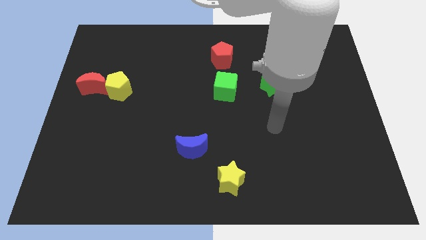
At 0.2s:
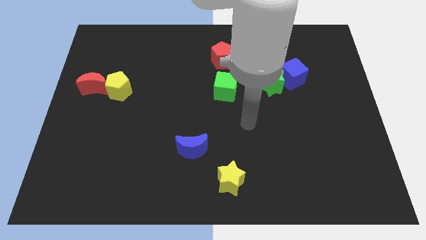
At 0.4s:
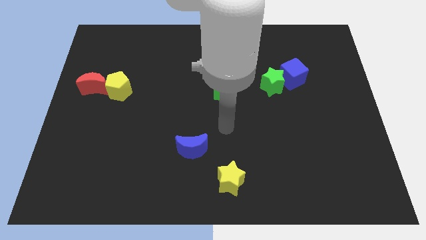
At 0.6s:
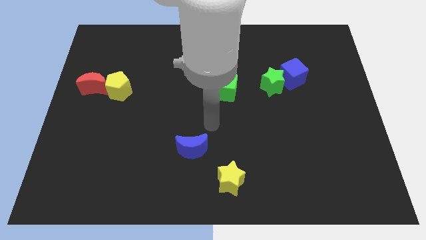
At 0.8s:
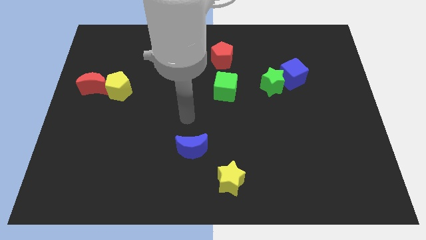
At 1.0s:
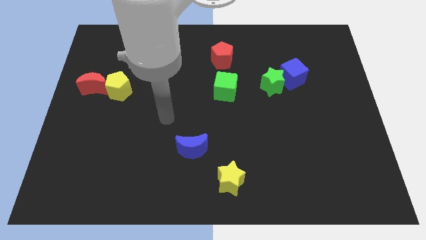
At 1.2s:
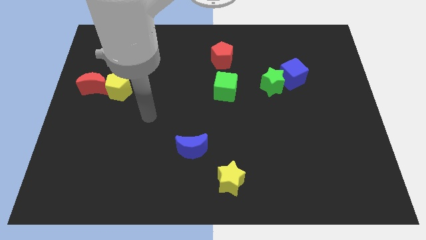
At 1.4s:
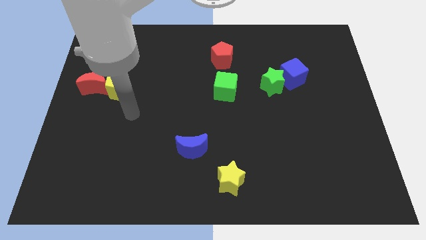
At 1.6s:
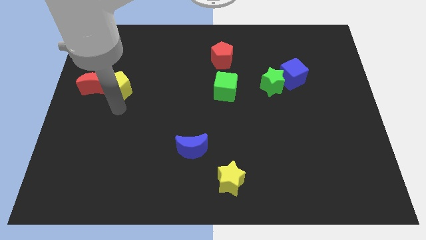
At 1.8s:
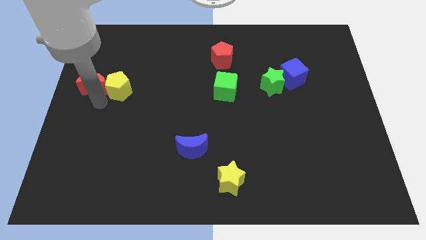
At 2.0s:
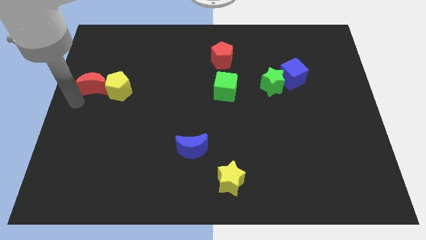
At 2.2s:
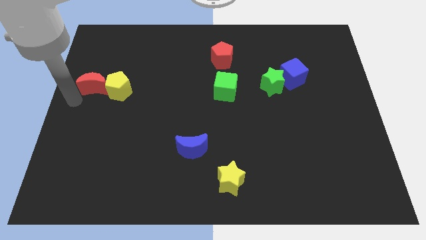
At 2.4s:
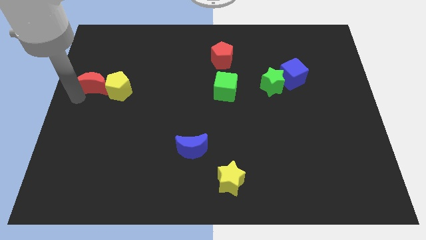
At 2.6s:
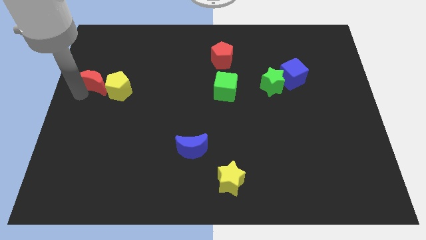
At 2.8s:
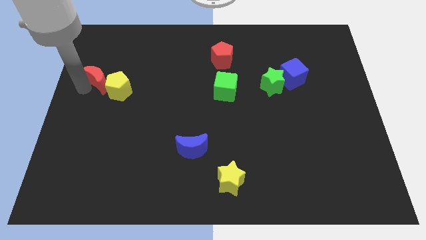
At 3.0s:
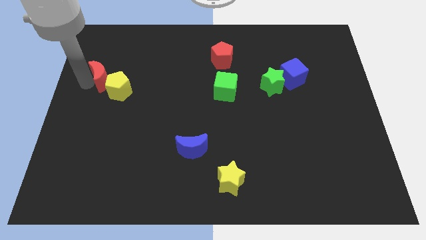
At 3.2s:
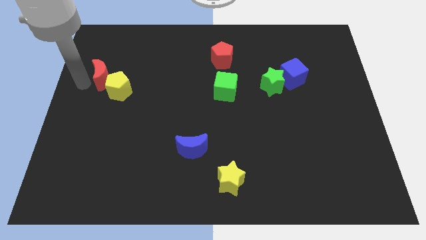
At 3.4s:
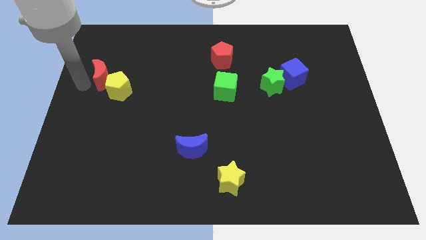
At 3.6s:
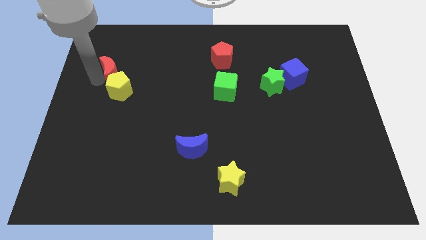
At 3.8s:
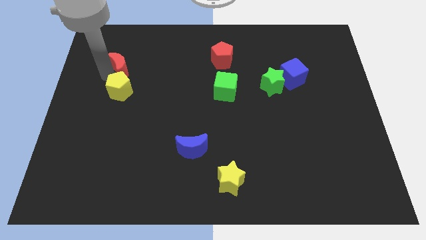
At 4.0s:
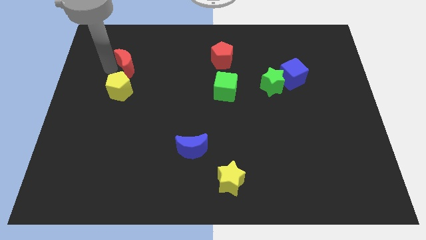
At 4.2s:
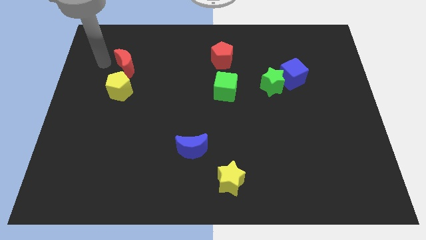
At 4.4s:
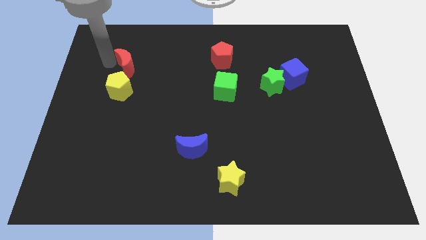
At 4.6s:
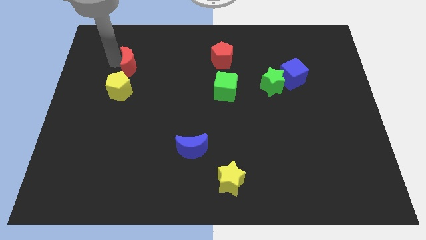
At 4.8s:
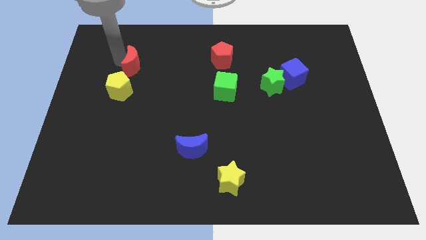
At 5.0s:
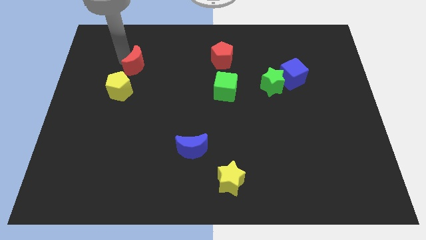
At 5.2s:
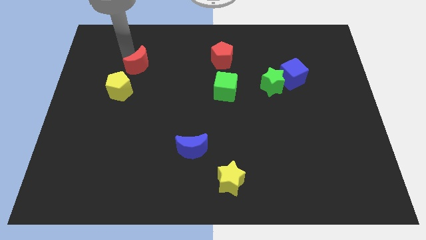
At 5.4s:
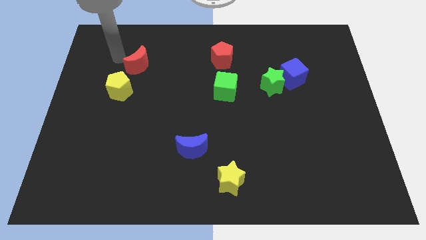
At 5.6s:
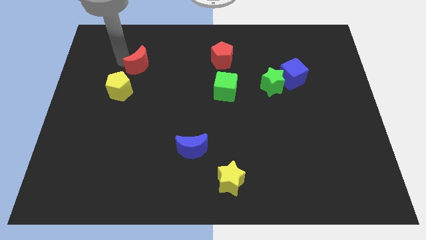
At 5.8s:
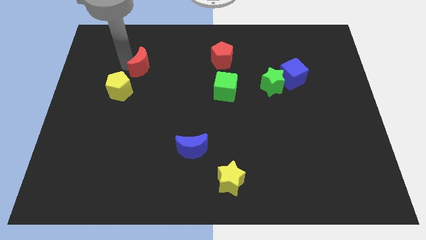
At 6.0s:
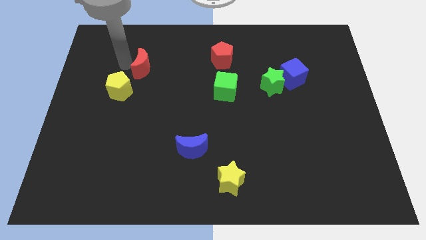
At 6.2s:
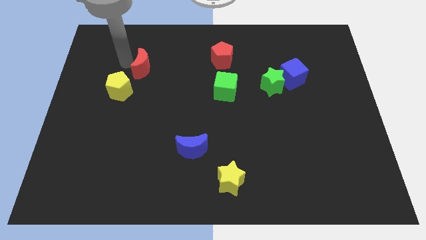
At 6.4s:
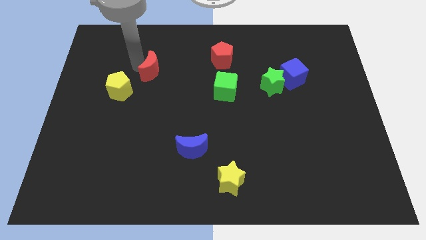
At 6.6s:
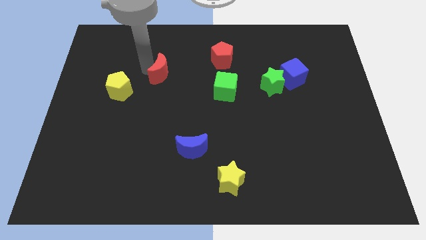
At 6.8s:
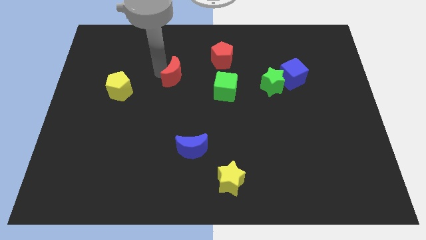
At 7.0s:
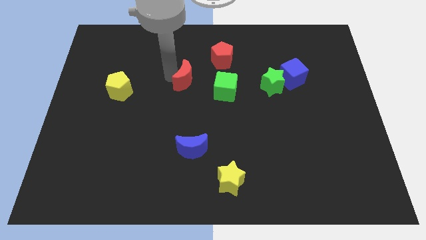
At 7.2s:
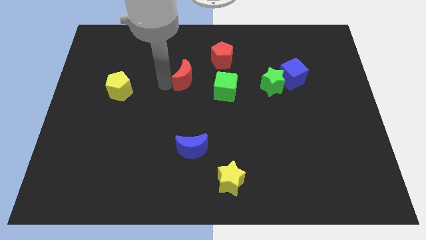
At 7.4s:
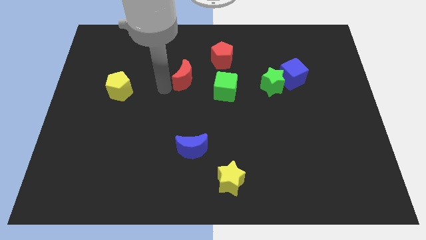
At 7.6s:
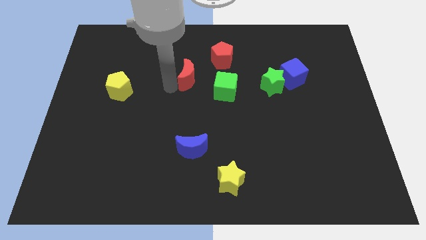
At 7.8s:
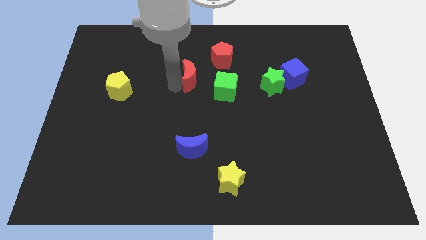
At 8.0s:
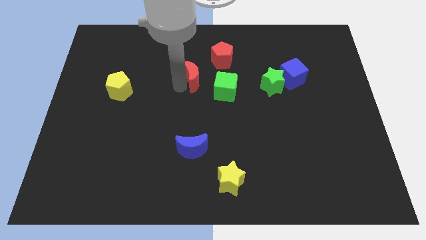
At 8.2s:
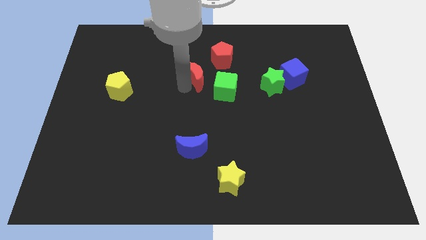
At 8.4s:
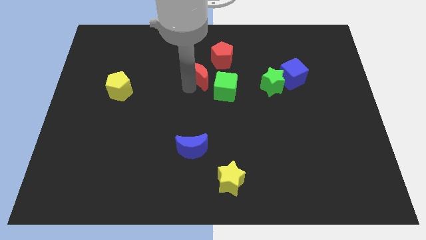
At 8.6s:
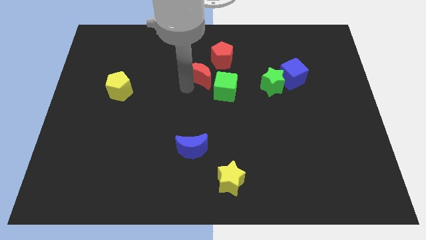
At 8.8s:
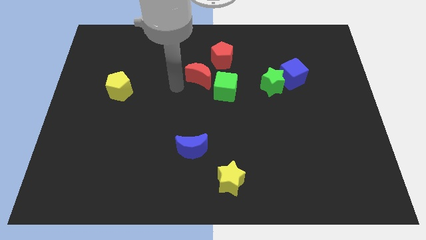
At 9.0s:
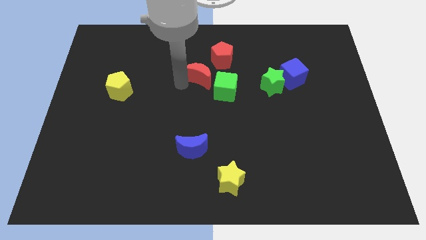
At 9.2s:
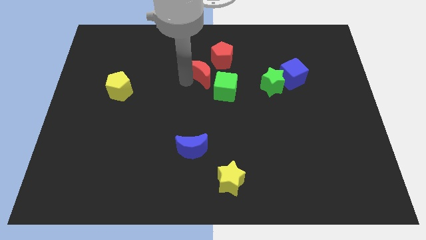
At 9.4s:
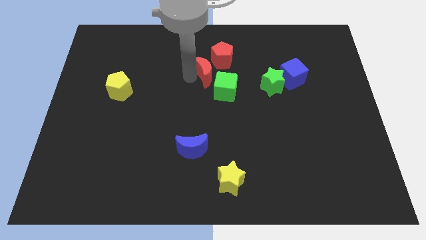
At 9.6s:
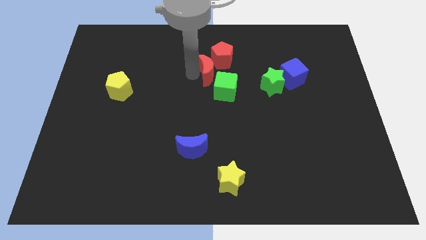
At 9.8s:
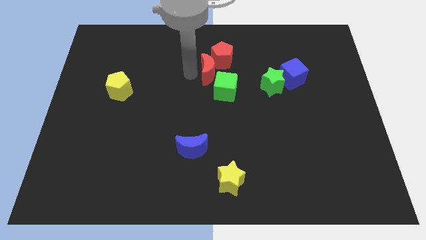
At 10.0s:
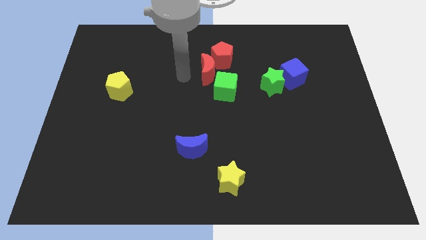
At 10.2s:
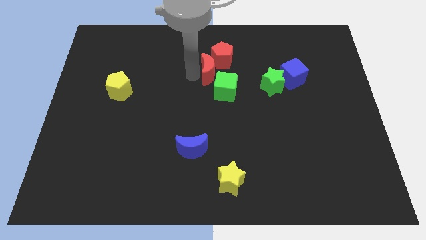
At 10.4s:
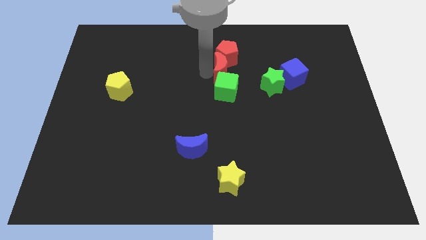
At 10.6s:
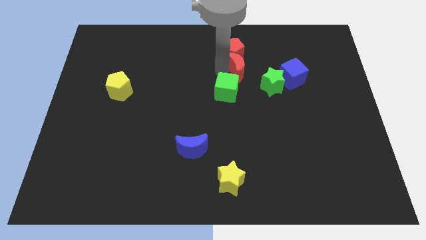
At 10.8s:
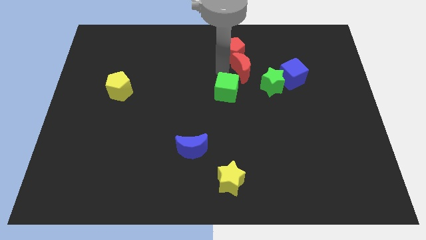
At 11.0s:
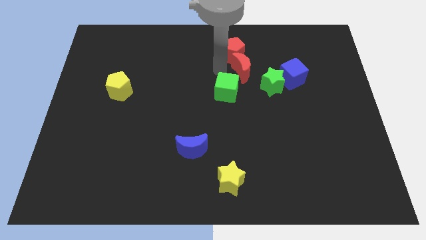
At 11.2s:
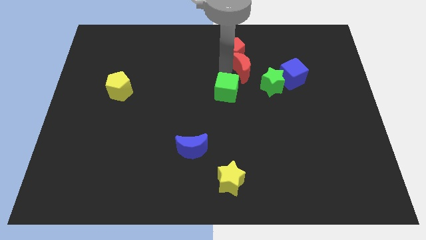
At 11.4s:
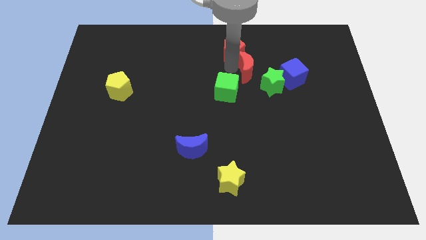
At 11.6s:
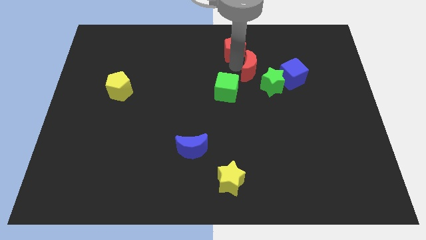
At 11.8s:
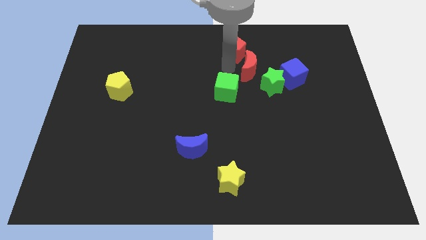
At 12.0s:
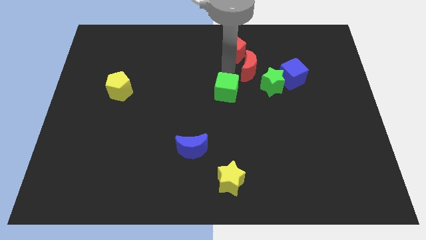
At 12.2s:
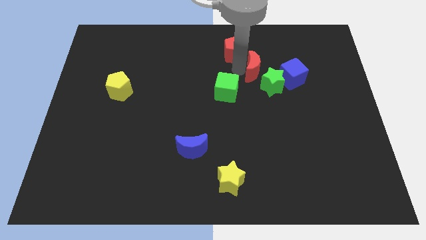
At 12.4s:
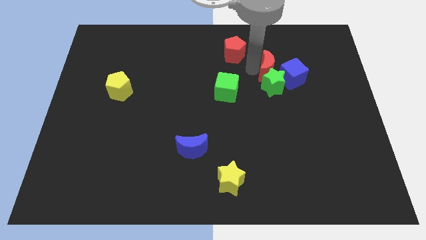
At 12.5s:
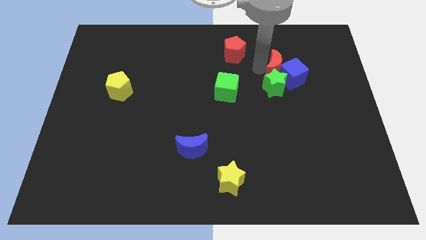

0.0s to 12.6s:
put the red moon next to the blue cube
